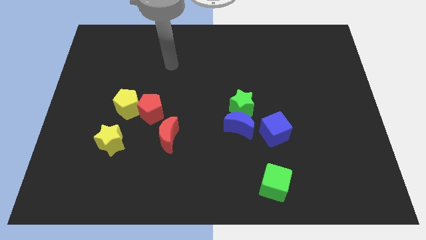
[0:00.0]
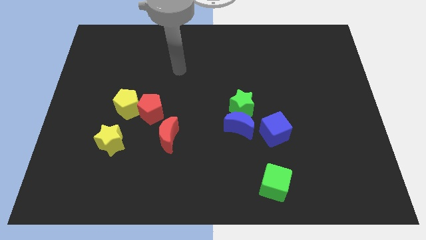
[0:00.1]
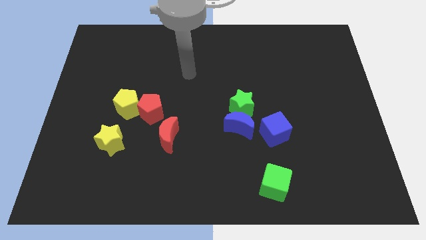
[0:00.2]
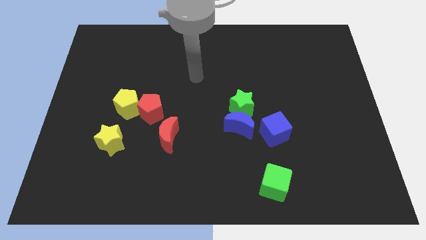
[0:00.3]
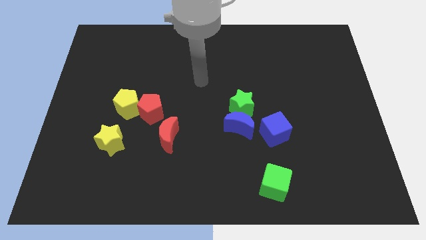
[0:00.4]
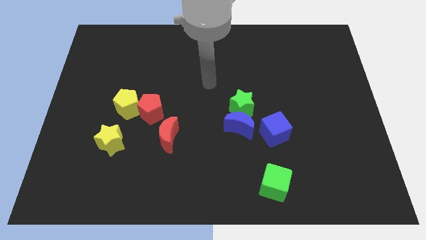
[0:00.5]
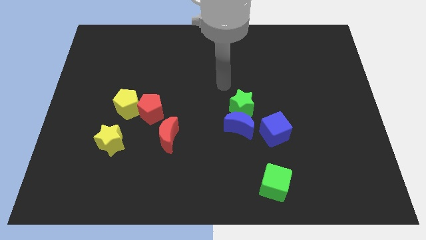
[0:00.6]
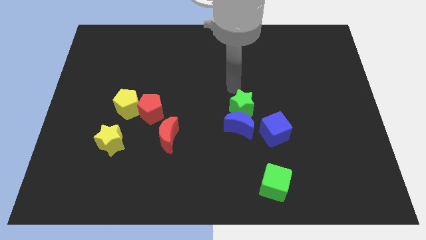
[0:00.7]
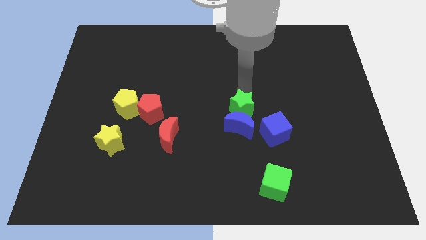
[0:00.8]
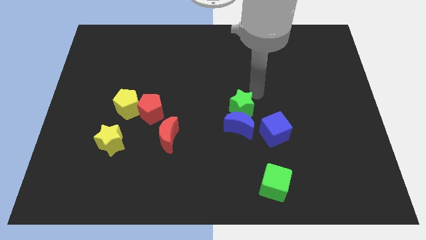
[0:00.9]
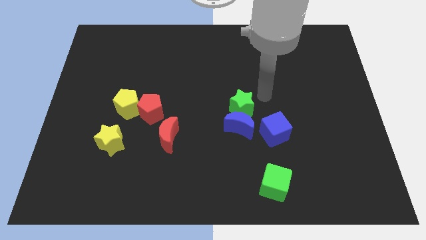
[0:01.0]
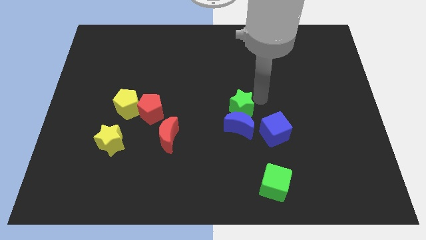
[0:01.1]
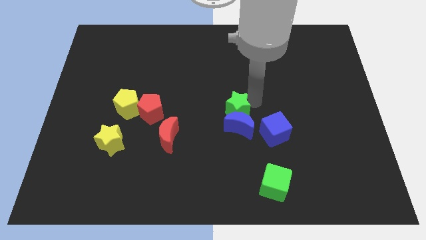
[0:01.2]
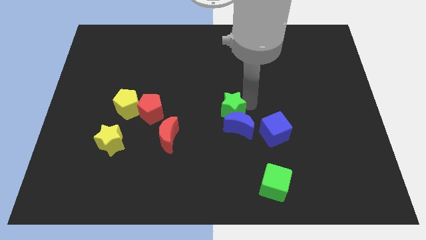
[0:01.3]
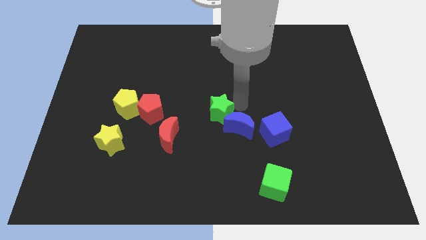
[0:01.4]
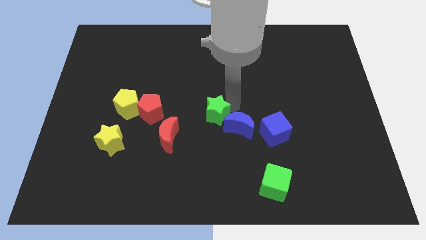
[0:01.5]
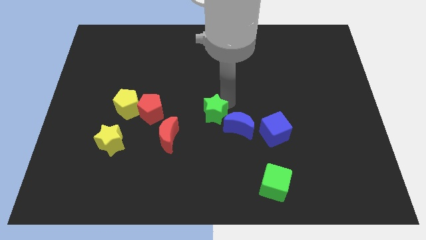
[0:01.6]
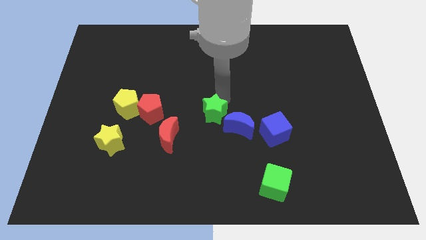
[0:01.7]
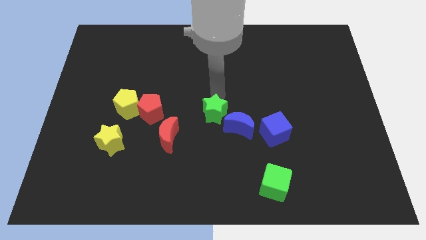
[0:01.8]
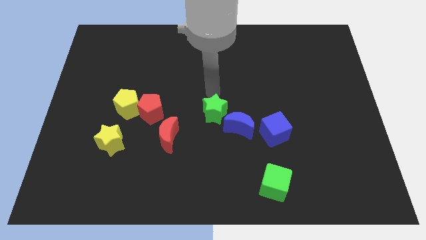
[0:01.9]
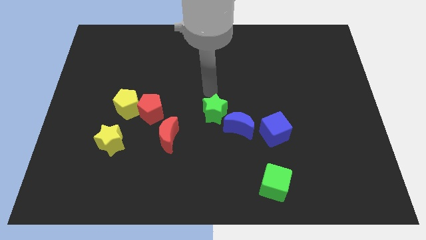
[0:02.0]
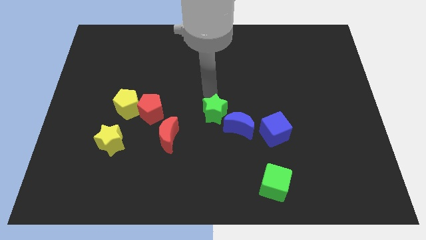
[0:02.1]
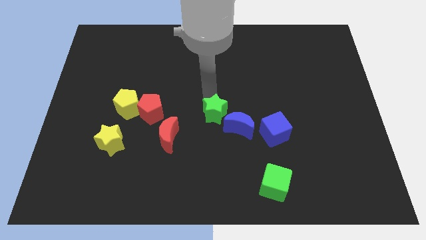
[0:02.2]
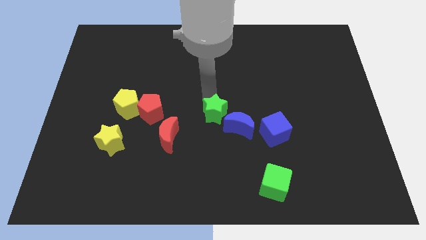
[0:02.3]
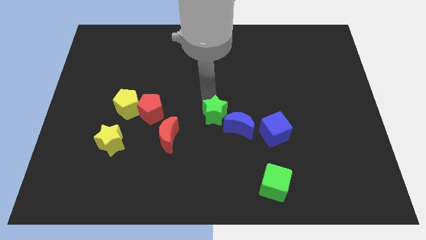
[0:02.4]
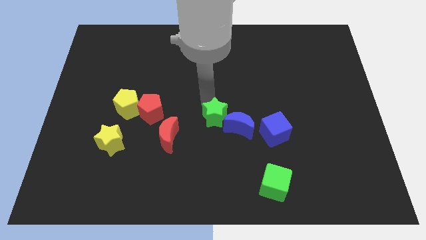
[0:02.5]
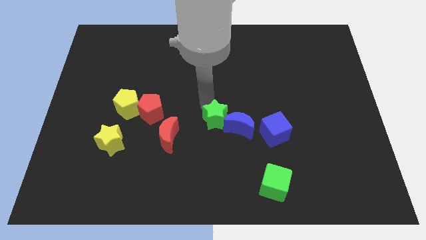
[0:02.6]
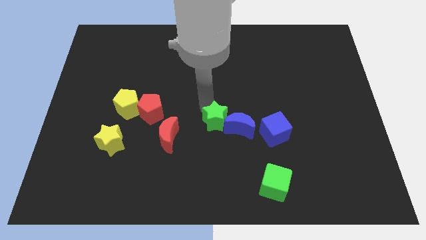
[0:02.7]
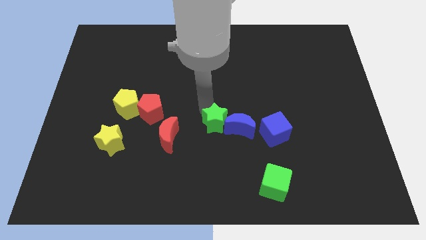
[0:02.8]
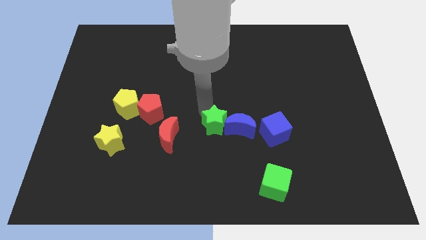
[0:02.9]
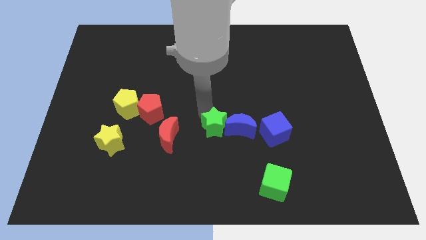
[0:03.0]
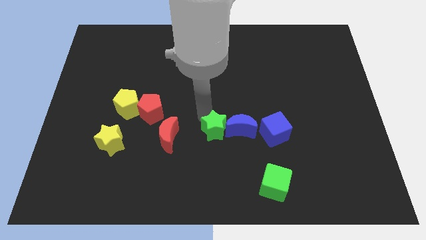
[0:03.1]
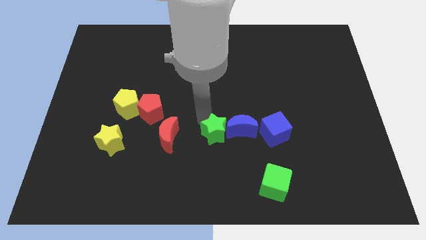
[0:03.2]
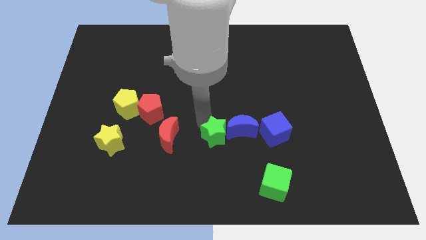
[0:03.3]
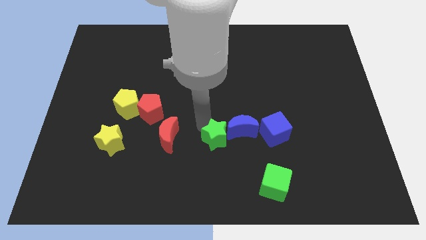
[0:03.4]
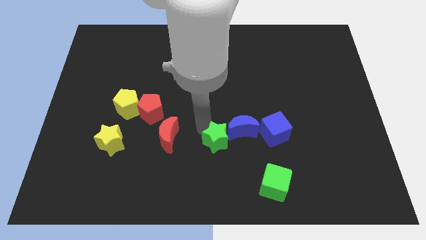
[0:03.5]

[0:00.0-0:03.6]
push the green star down slightly

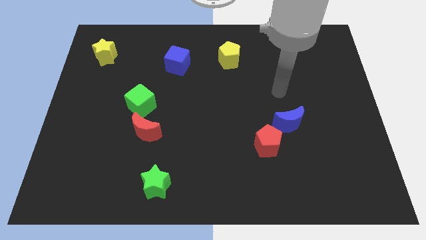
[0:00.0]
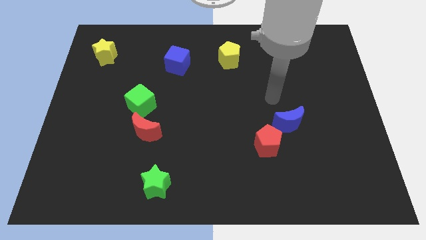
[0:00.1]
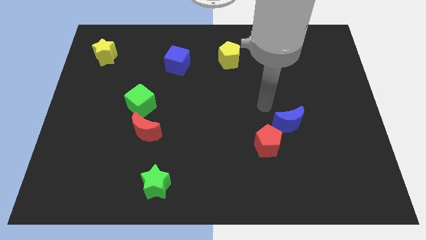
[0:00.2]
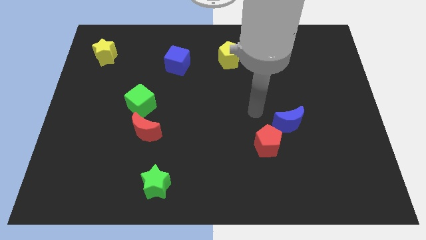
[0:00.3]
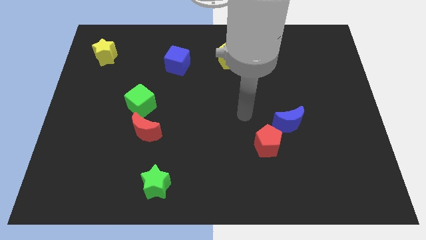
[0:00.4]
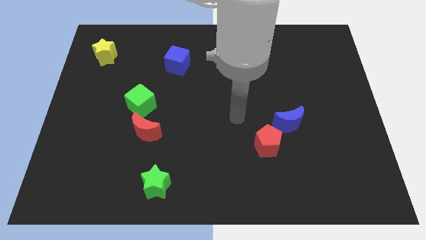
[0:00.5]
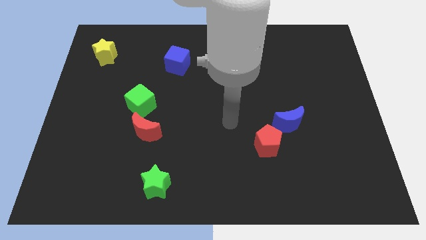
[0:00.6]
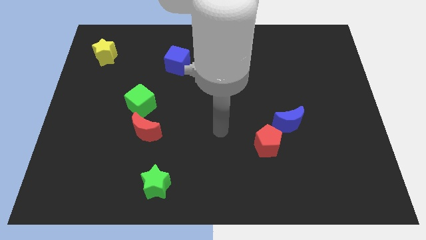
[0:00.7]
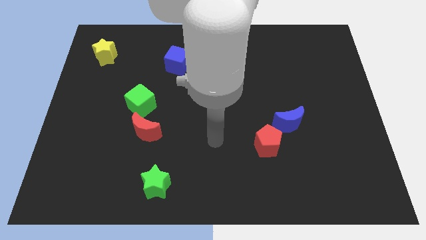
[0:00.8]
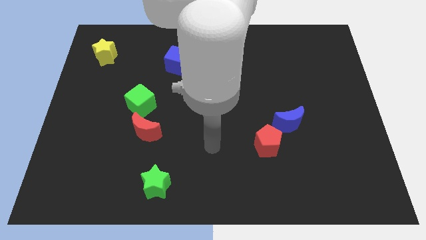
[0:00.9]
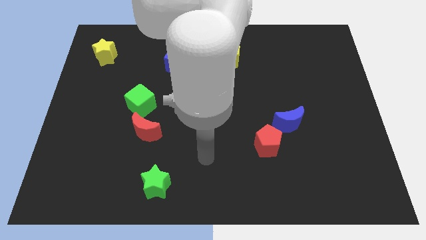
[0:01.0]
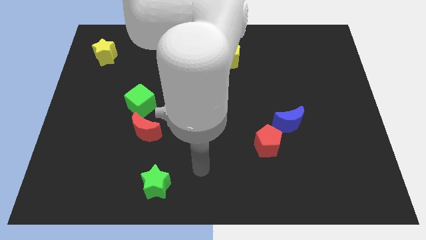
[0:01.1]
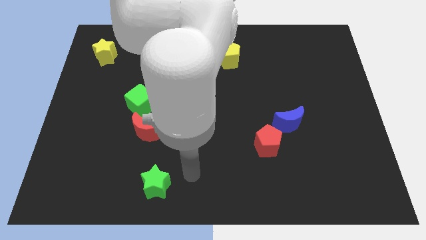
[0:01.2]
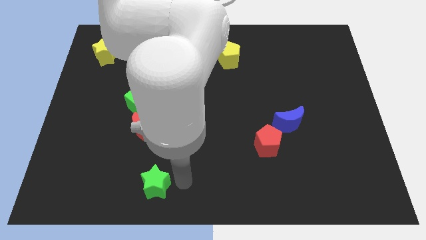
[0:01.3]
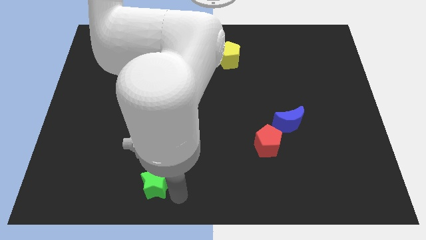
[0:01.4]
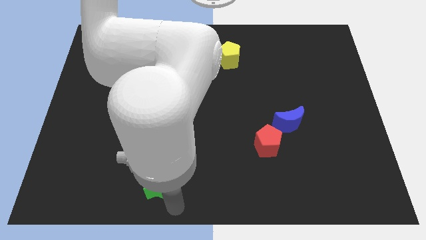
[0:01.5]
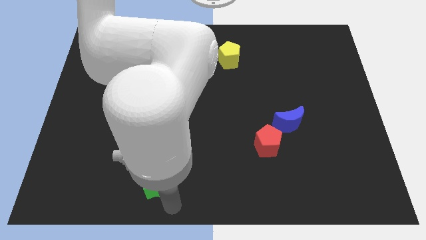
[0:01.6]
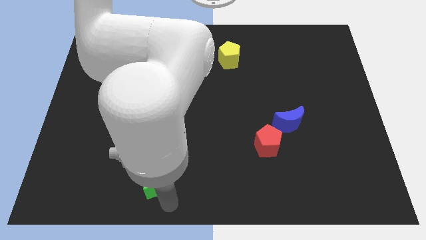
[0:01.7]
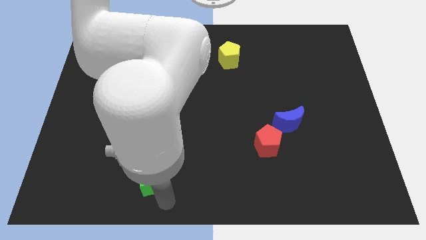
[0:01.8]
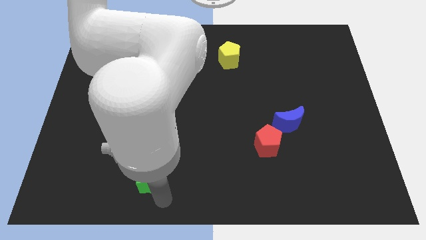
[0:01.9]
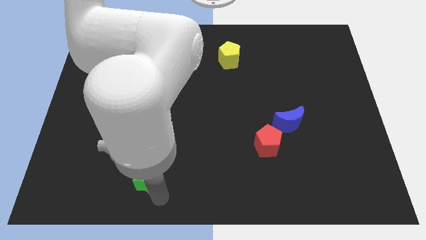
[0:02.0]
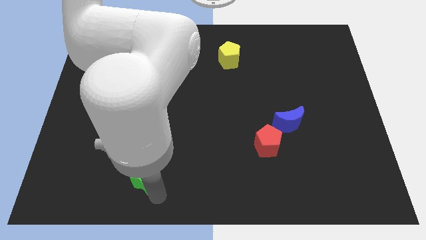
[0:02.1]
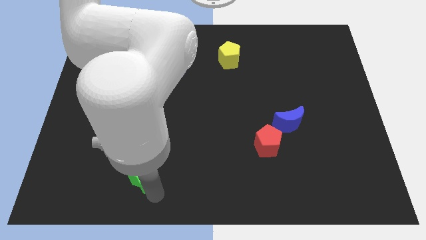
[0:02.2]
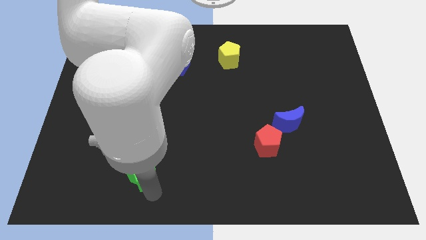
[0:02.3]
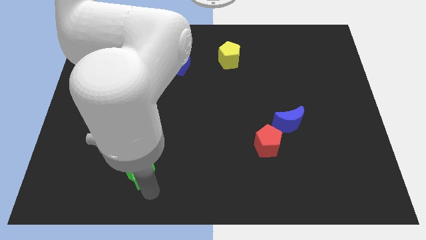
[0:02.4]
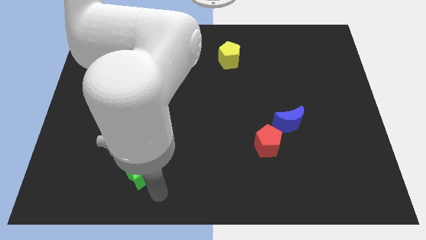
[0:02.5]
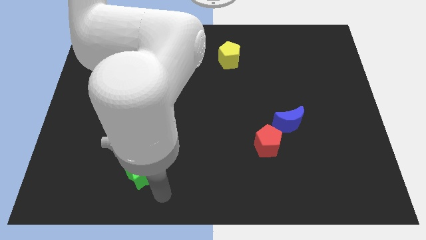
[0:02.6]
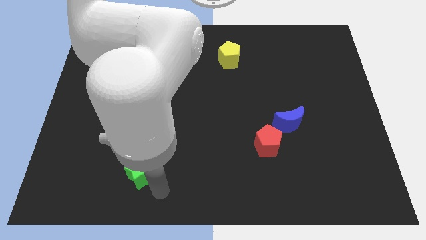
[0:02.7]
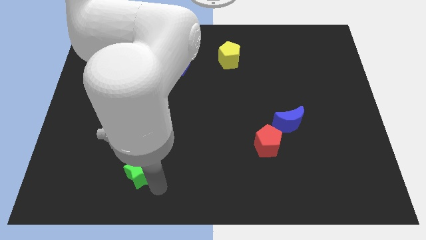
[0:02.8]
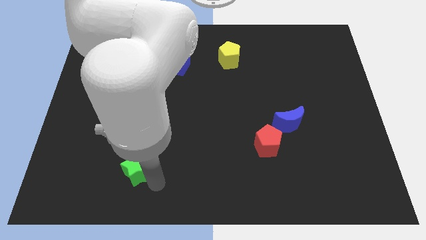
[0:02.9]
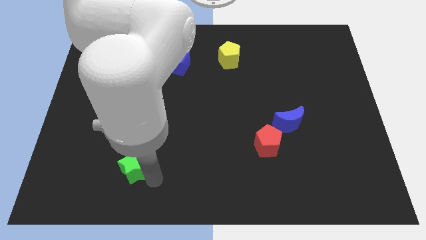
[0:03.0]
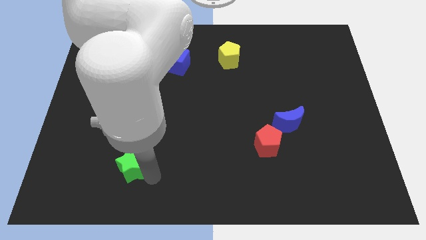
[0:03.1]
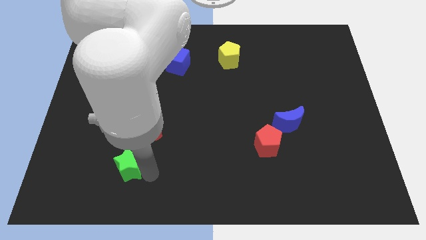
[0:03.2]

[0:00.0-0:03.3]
slightly push the green star diagonally up and left

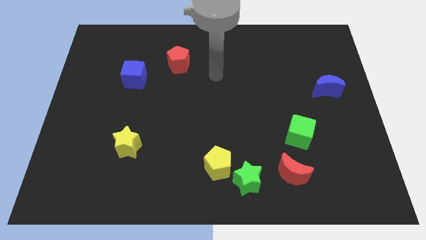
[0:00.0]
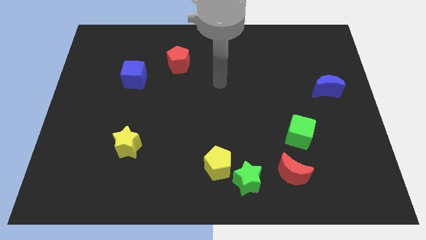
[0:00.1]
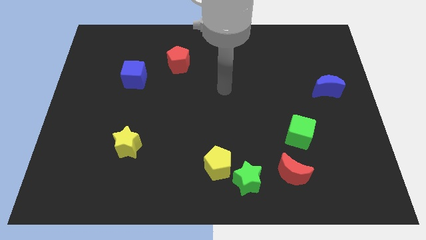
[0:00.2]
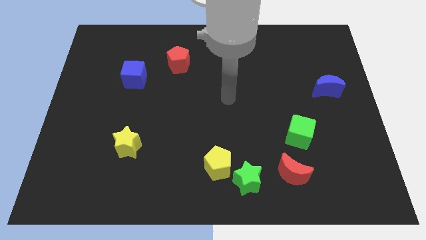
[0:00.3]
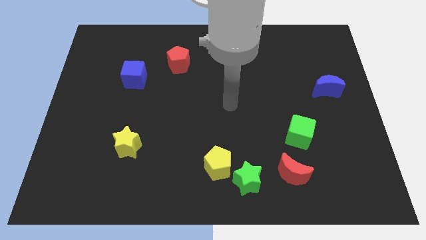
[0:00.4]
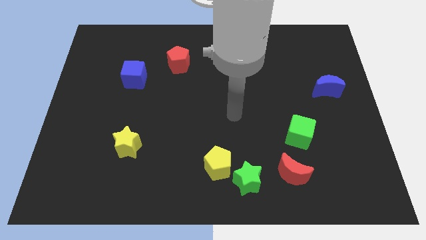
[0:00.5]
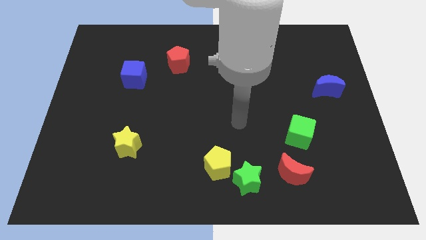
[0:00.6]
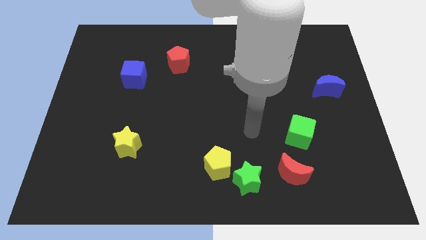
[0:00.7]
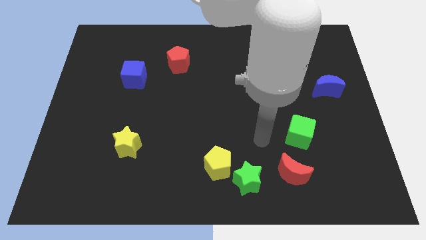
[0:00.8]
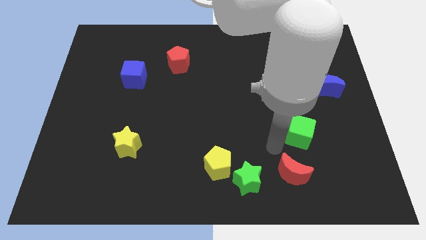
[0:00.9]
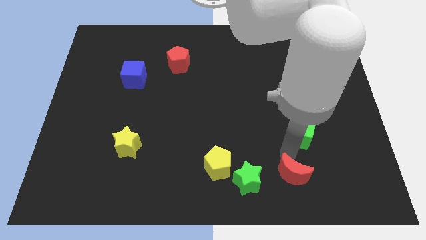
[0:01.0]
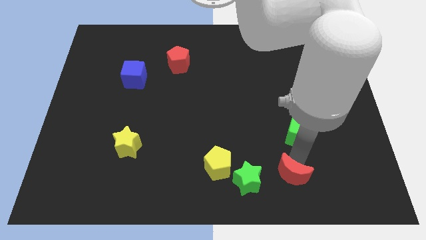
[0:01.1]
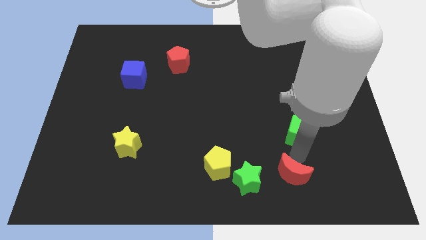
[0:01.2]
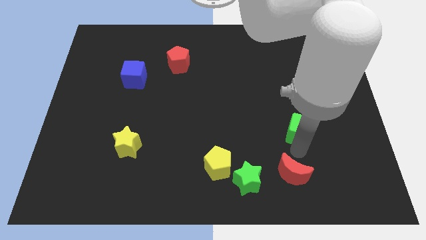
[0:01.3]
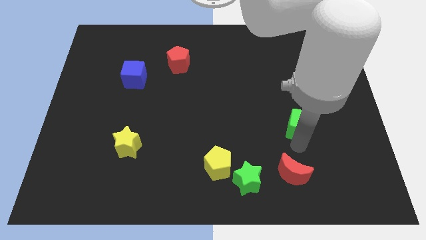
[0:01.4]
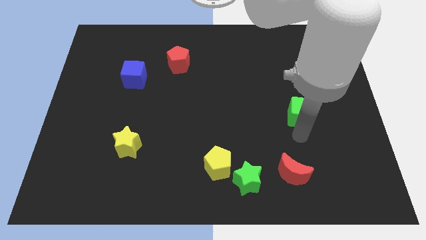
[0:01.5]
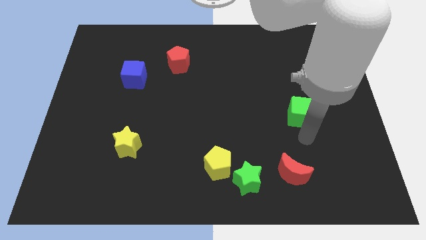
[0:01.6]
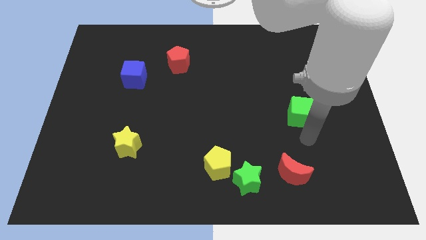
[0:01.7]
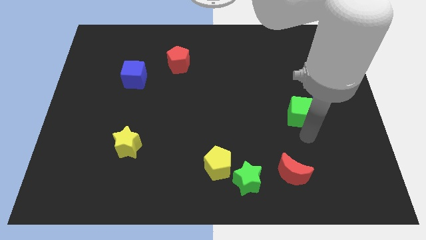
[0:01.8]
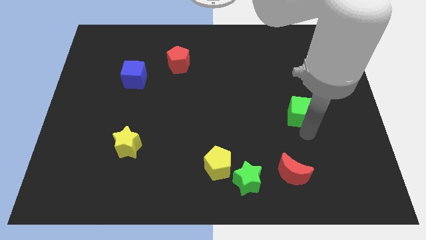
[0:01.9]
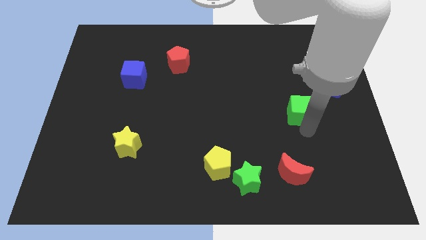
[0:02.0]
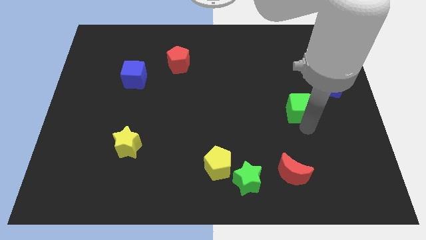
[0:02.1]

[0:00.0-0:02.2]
slightly slide the green cube upwards
